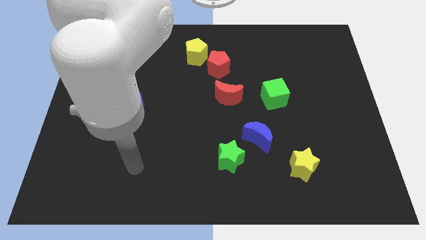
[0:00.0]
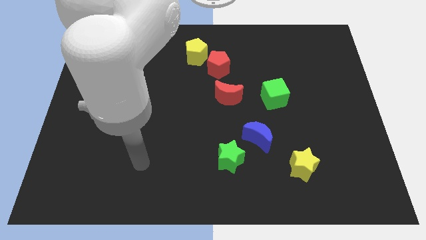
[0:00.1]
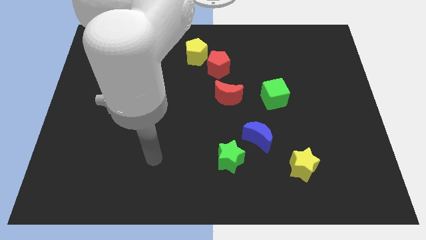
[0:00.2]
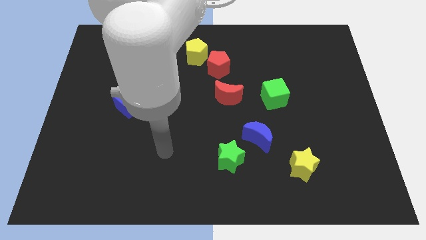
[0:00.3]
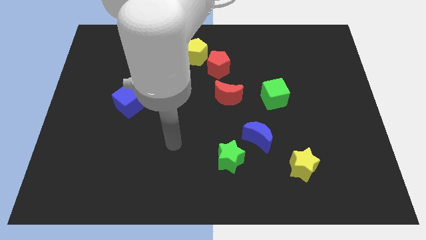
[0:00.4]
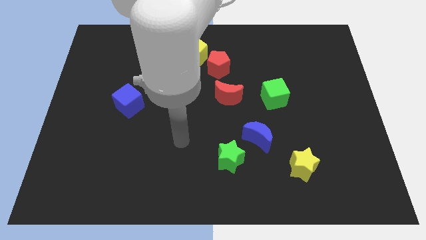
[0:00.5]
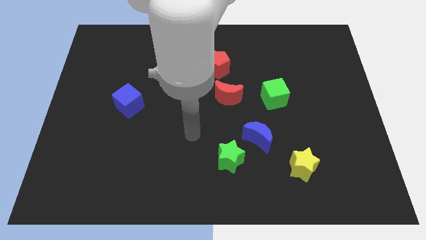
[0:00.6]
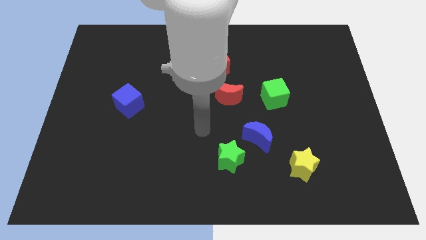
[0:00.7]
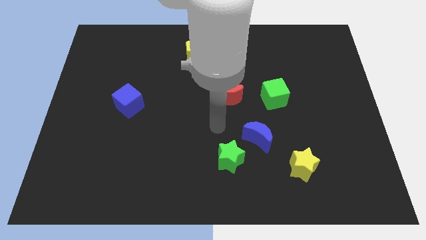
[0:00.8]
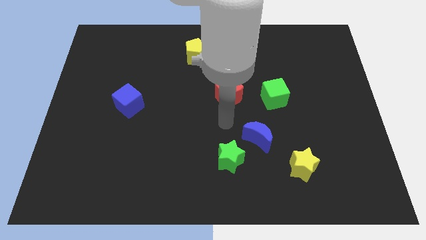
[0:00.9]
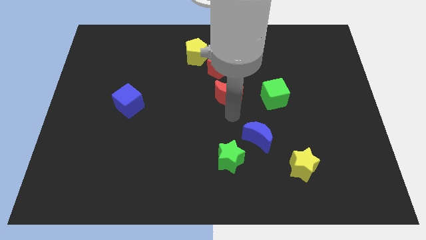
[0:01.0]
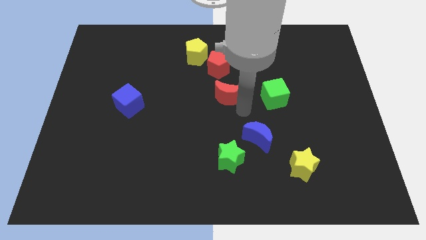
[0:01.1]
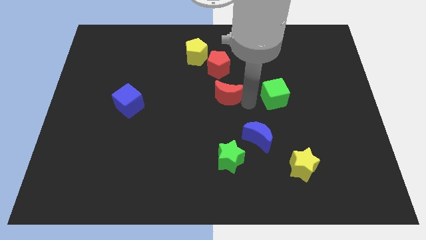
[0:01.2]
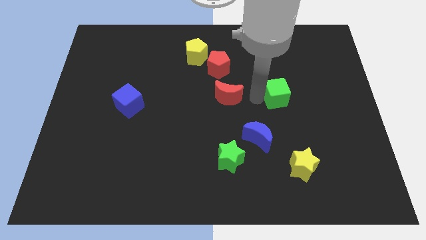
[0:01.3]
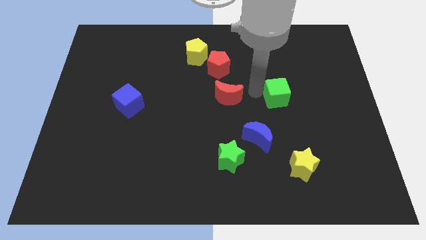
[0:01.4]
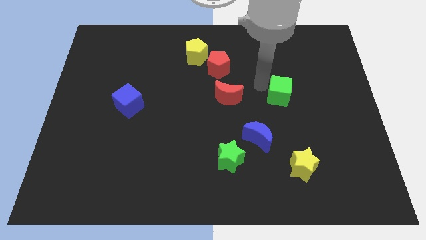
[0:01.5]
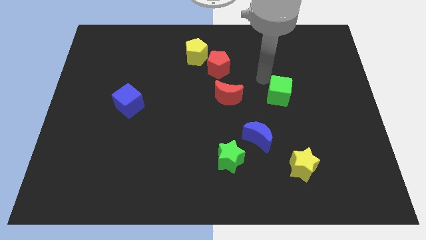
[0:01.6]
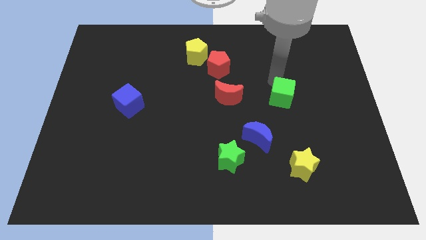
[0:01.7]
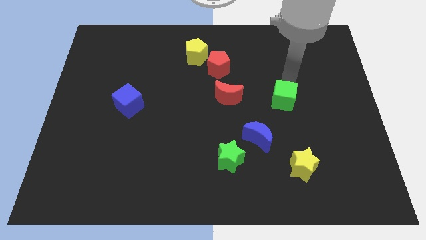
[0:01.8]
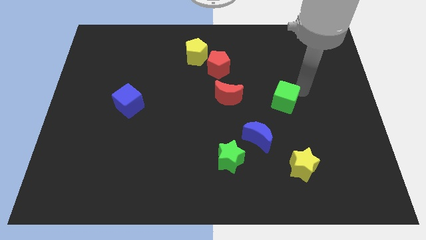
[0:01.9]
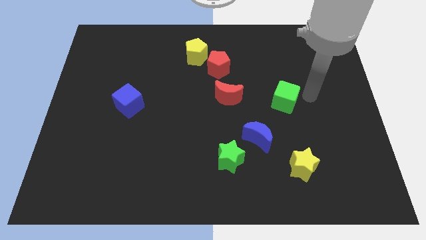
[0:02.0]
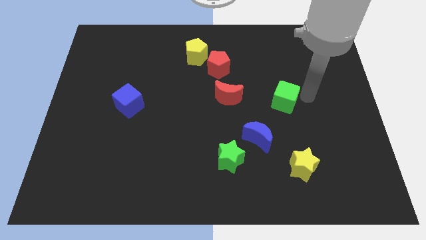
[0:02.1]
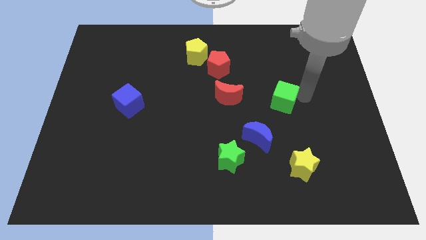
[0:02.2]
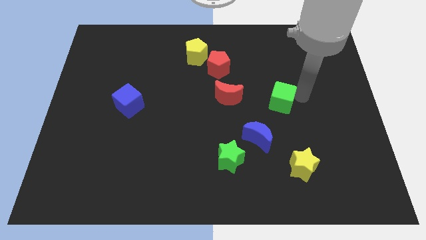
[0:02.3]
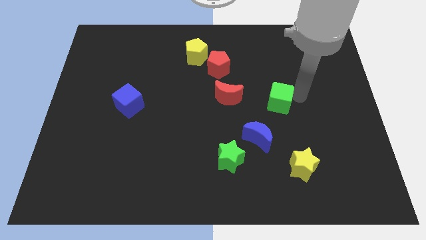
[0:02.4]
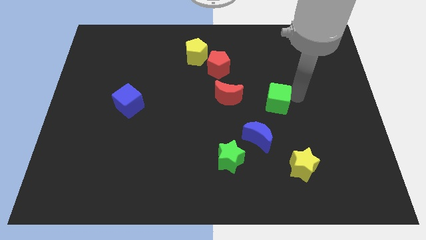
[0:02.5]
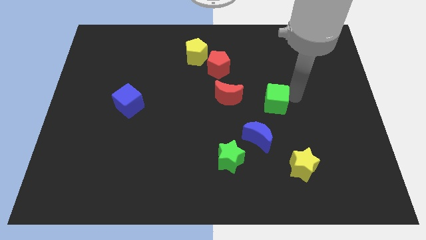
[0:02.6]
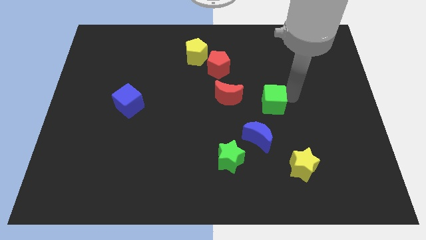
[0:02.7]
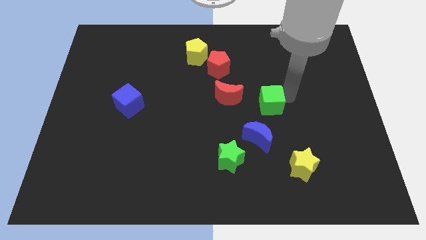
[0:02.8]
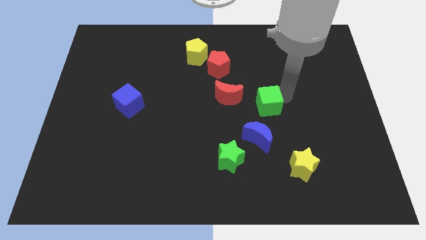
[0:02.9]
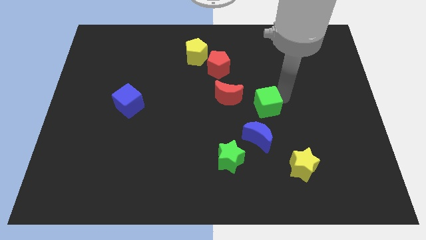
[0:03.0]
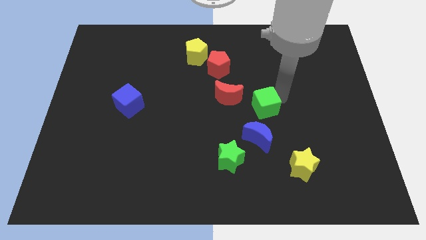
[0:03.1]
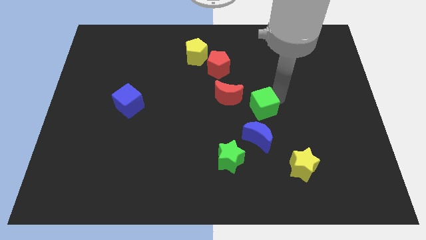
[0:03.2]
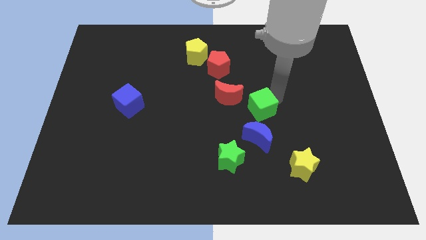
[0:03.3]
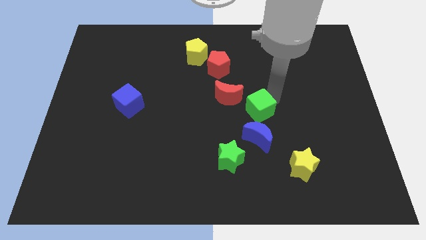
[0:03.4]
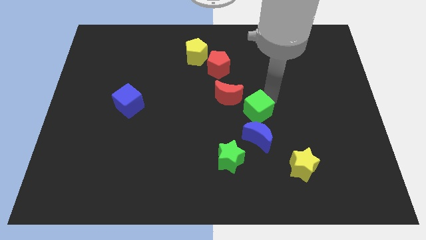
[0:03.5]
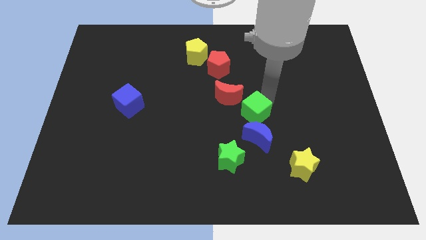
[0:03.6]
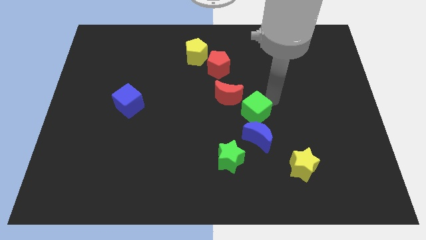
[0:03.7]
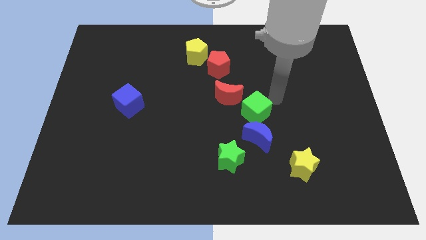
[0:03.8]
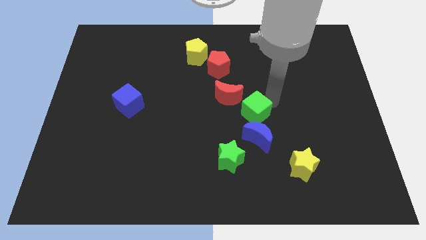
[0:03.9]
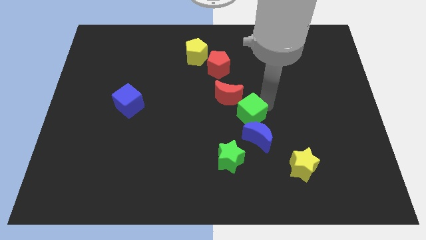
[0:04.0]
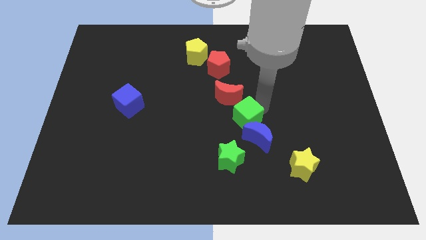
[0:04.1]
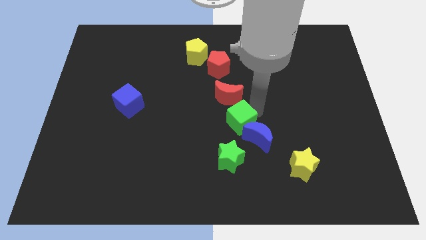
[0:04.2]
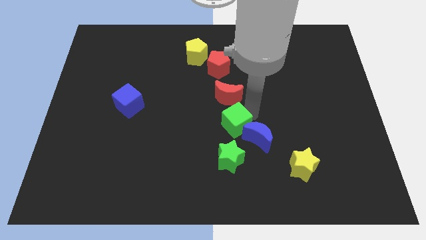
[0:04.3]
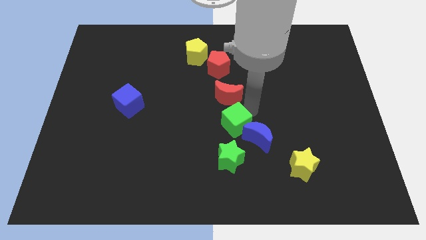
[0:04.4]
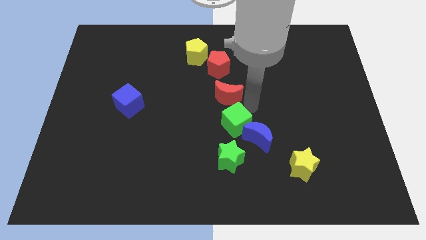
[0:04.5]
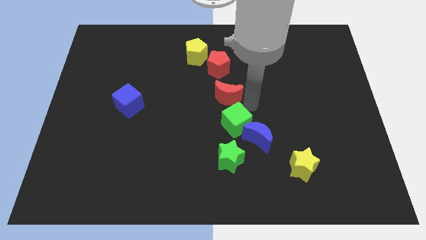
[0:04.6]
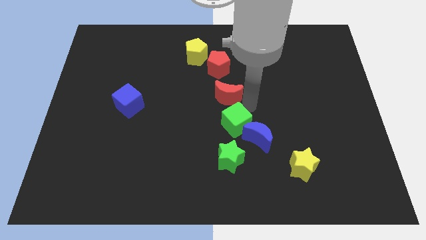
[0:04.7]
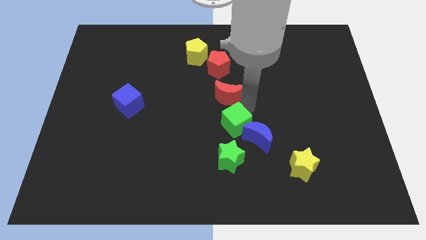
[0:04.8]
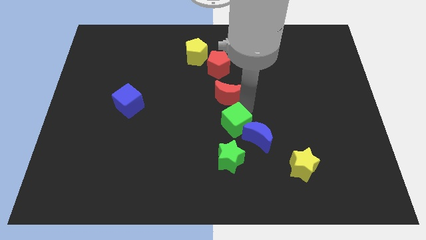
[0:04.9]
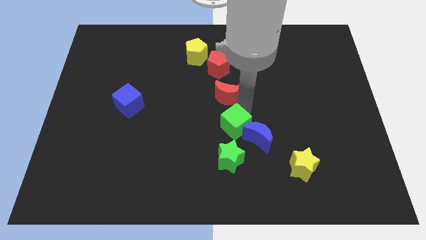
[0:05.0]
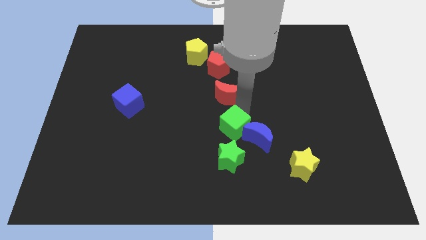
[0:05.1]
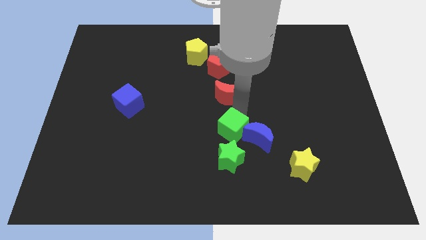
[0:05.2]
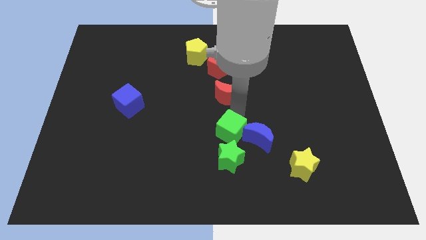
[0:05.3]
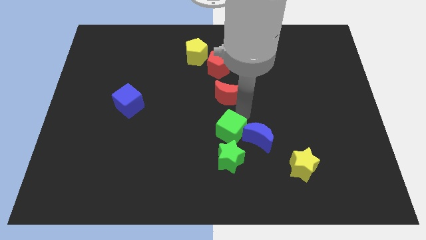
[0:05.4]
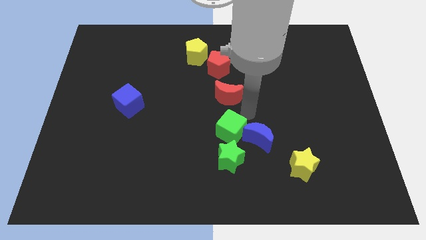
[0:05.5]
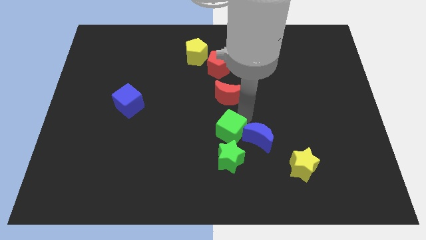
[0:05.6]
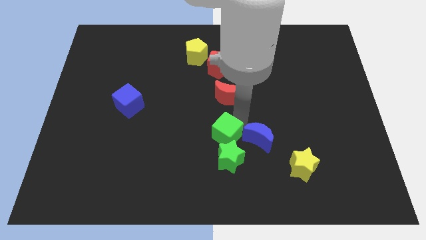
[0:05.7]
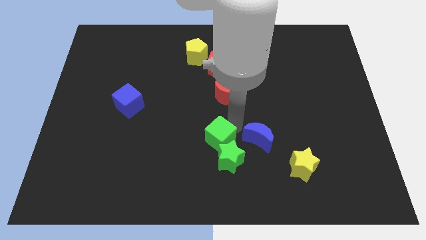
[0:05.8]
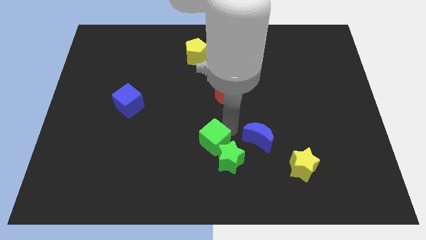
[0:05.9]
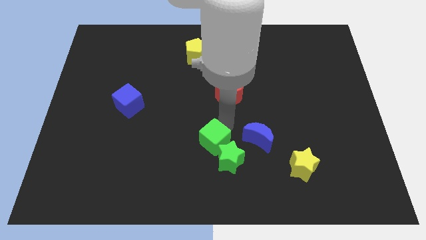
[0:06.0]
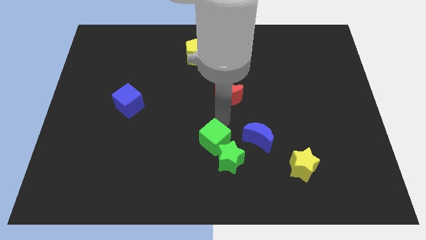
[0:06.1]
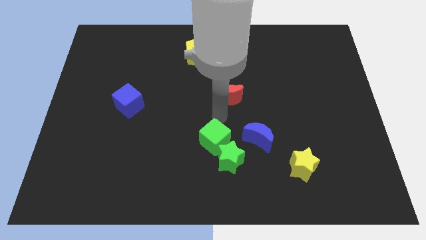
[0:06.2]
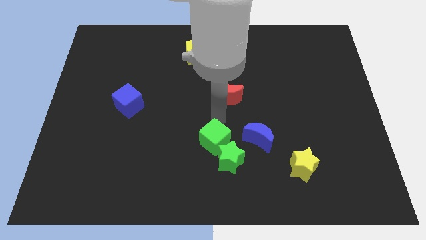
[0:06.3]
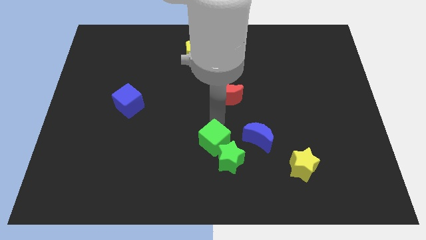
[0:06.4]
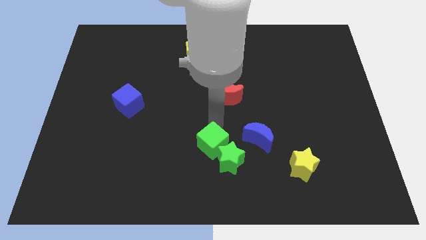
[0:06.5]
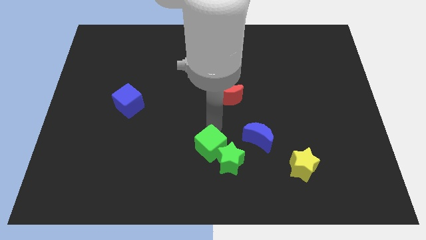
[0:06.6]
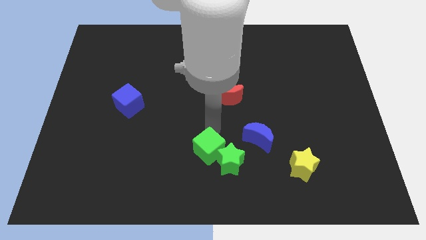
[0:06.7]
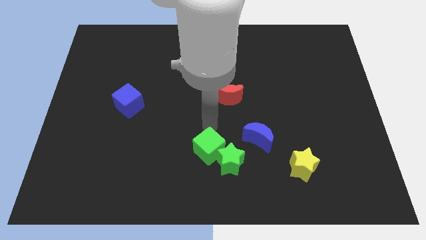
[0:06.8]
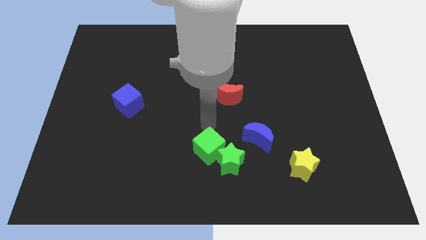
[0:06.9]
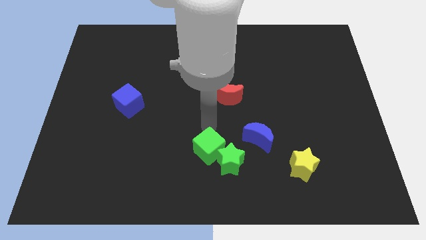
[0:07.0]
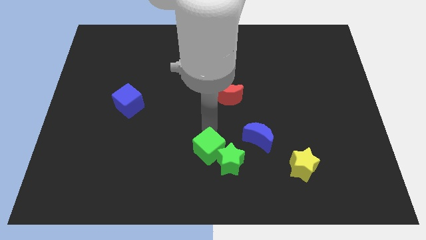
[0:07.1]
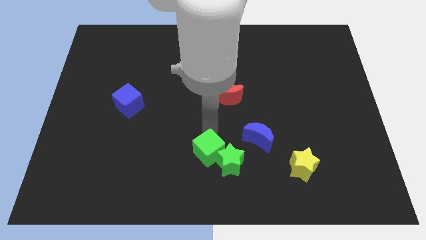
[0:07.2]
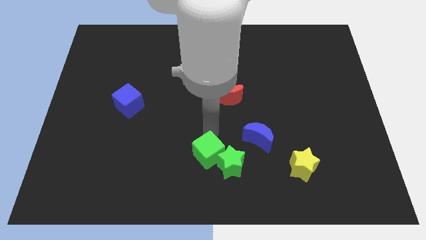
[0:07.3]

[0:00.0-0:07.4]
put the green cube to the bottom
